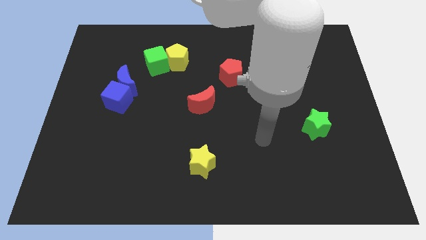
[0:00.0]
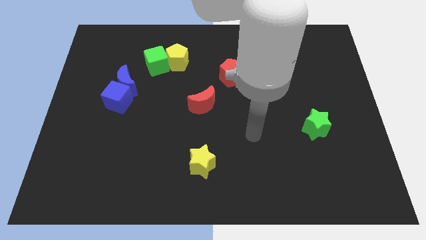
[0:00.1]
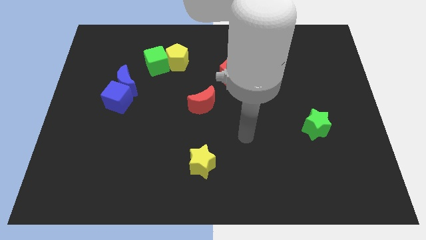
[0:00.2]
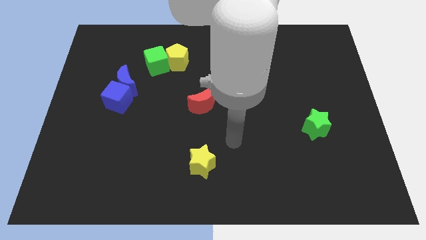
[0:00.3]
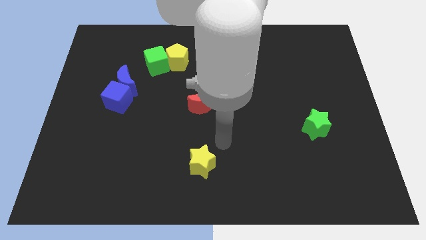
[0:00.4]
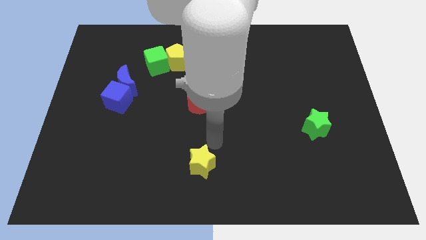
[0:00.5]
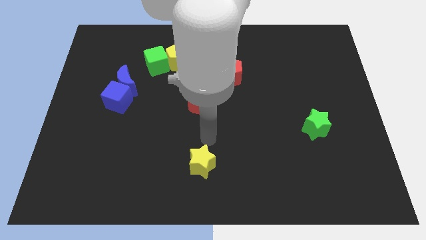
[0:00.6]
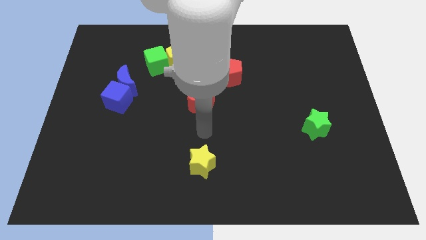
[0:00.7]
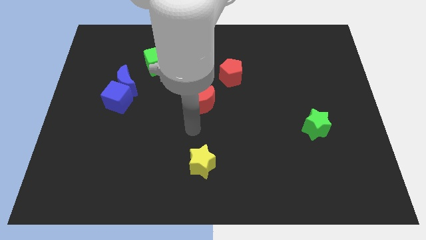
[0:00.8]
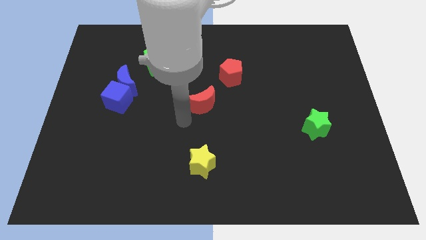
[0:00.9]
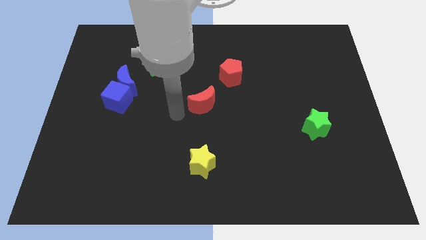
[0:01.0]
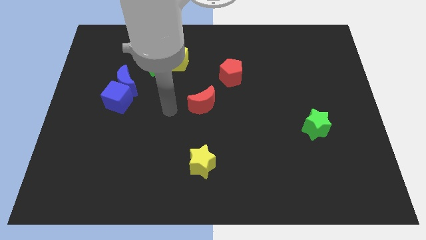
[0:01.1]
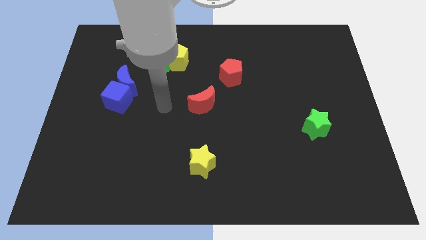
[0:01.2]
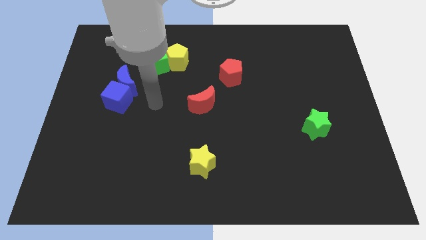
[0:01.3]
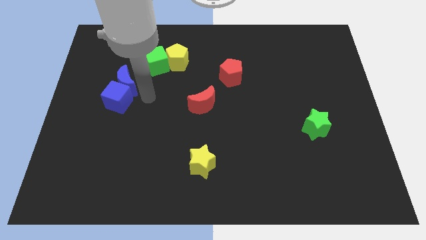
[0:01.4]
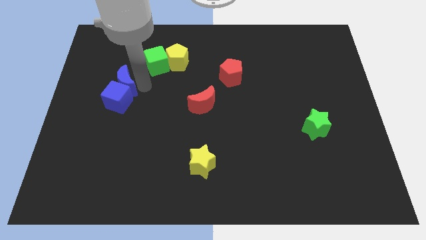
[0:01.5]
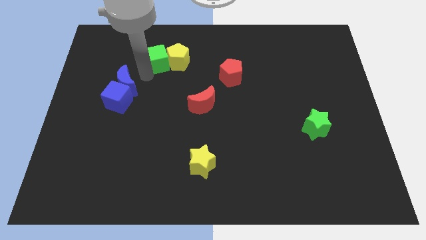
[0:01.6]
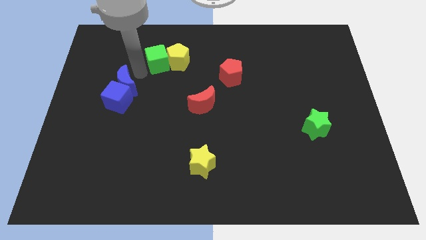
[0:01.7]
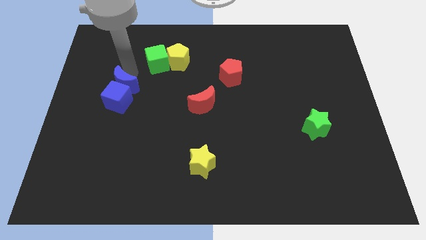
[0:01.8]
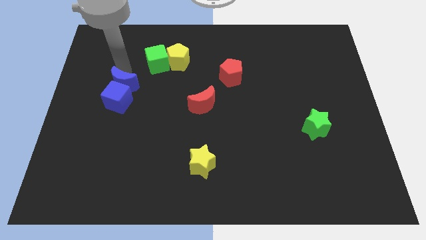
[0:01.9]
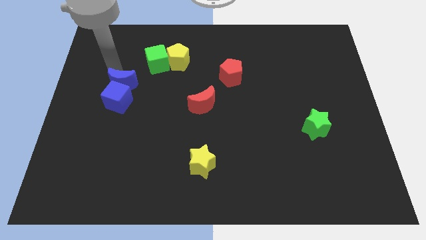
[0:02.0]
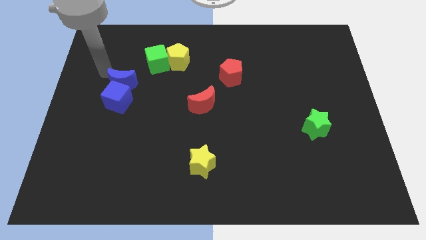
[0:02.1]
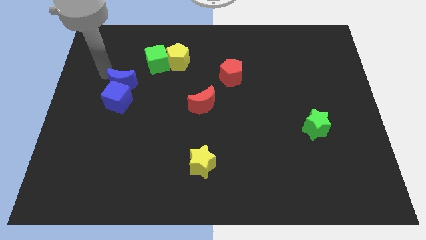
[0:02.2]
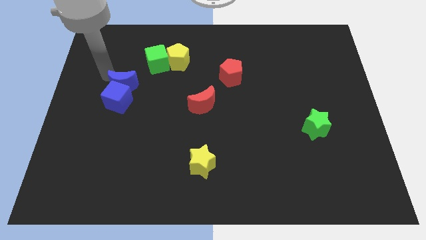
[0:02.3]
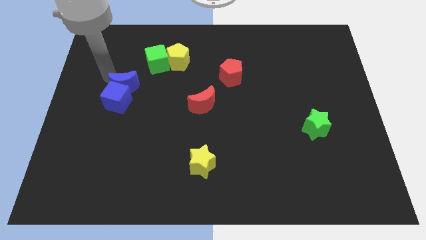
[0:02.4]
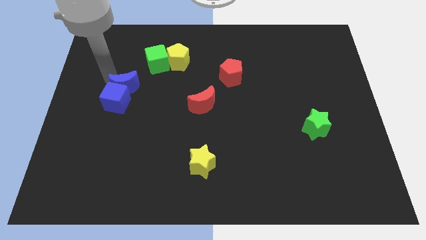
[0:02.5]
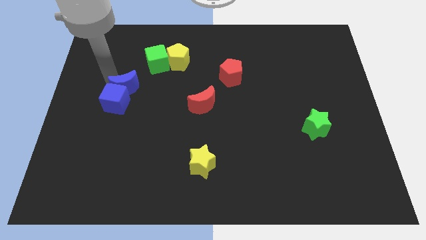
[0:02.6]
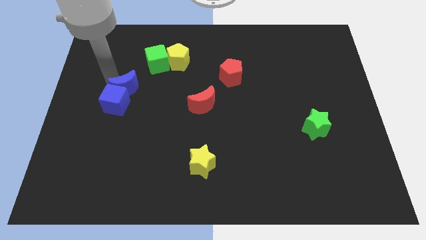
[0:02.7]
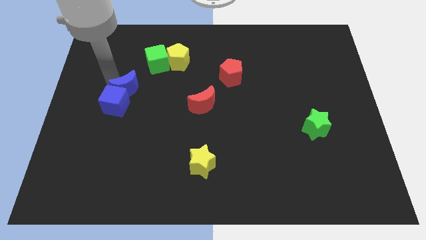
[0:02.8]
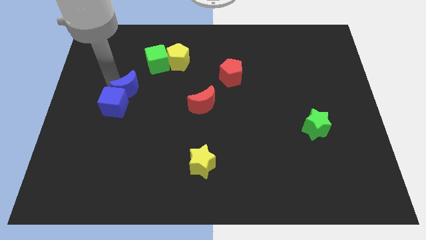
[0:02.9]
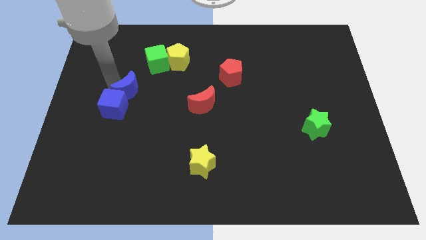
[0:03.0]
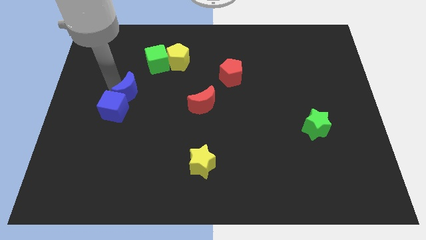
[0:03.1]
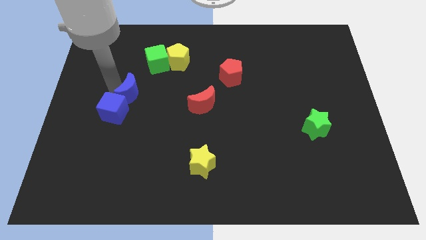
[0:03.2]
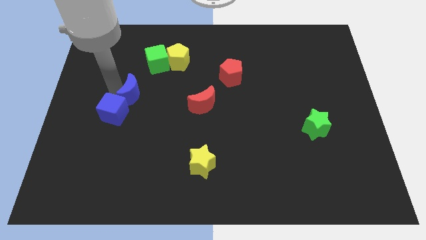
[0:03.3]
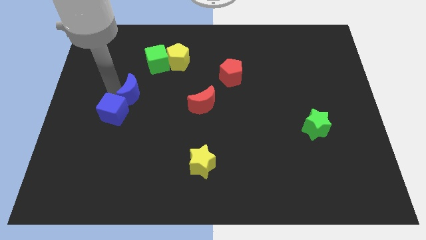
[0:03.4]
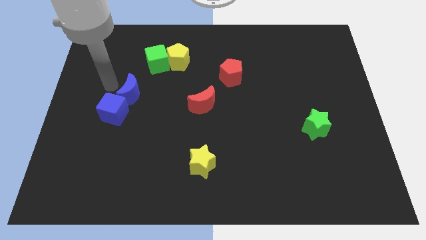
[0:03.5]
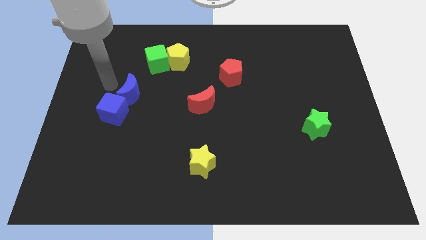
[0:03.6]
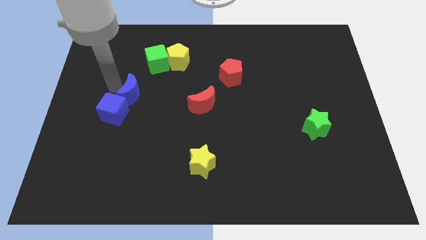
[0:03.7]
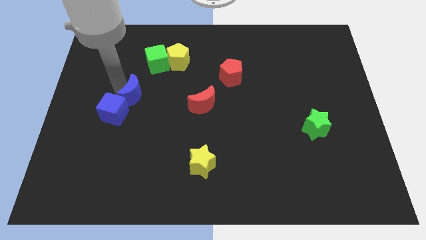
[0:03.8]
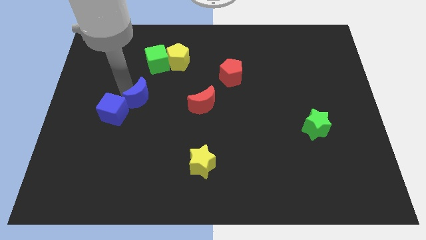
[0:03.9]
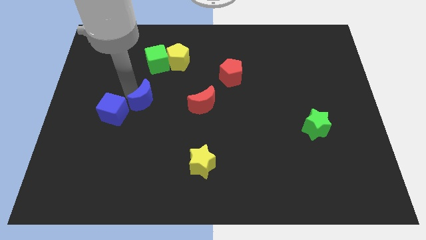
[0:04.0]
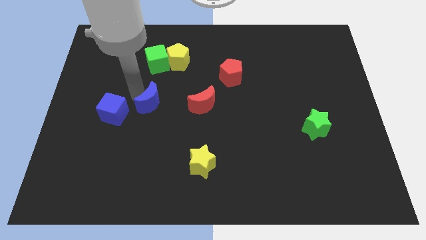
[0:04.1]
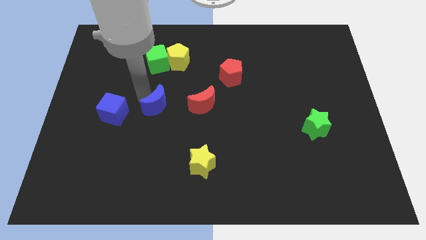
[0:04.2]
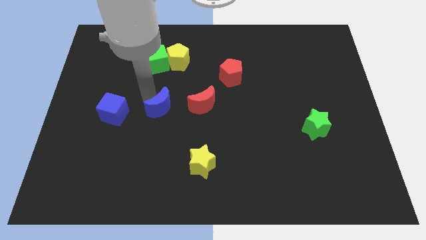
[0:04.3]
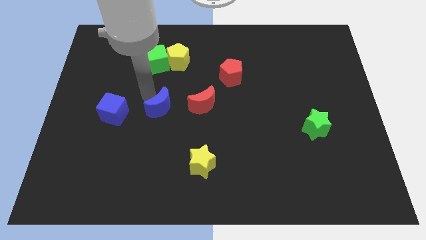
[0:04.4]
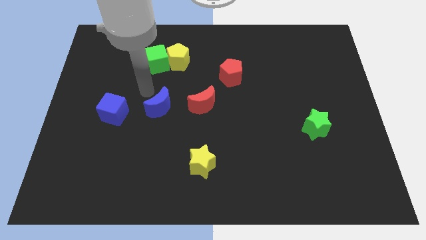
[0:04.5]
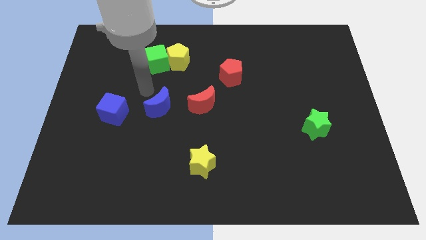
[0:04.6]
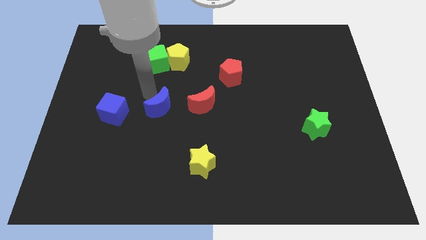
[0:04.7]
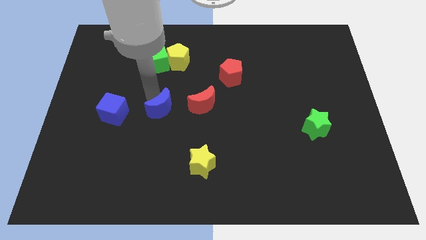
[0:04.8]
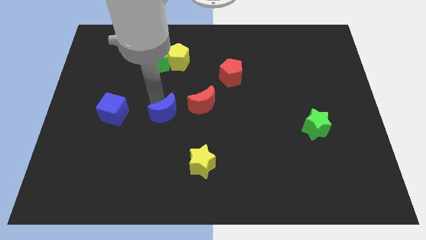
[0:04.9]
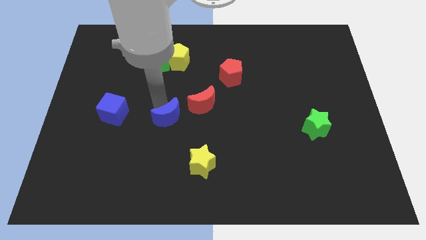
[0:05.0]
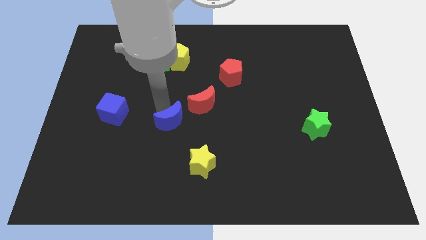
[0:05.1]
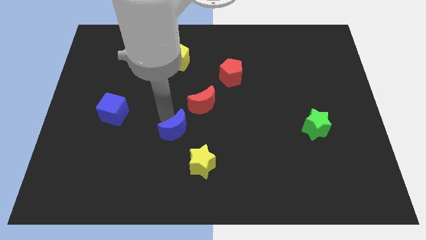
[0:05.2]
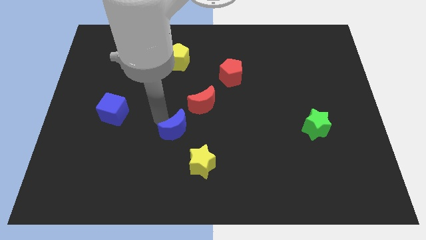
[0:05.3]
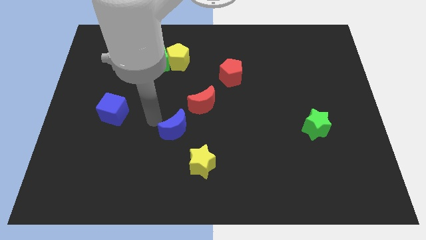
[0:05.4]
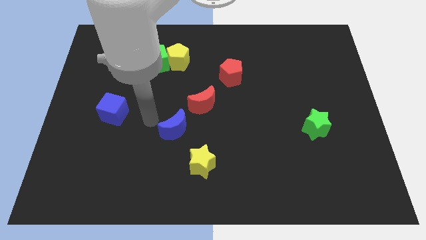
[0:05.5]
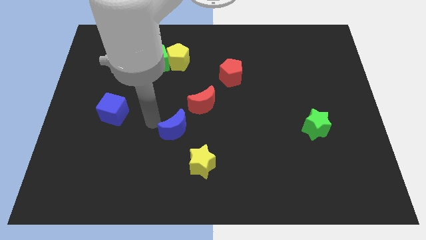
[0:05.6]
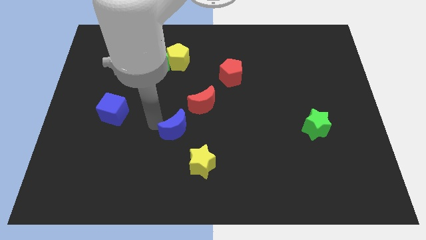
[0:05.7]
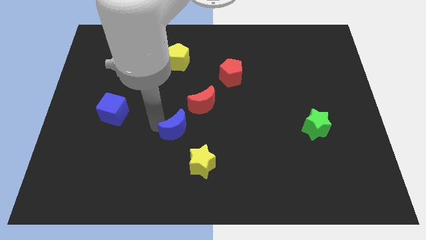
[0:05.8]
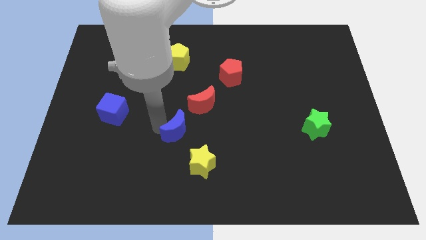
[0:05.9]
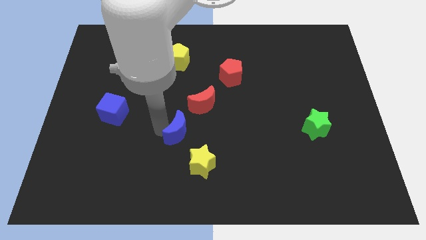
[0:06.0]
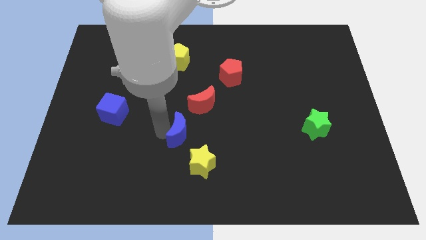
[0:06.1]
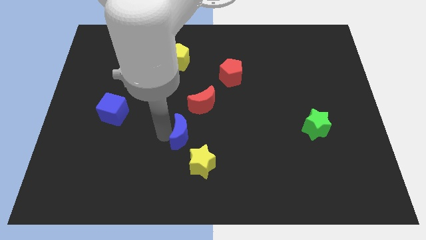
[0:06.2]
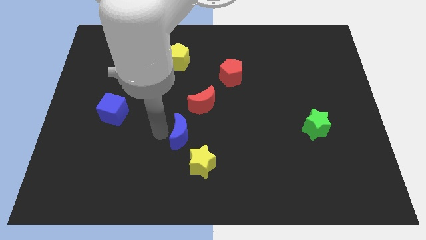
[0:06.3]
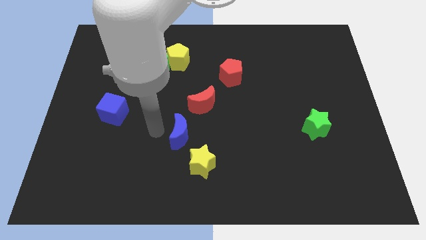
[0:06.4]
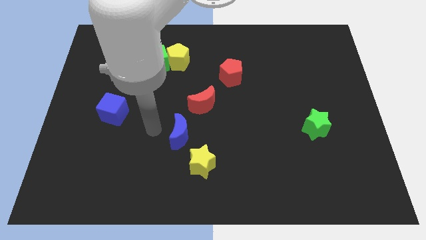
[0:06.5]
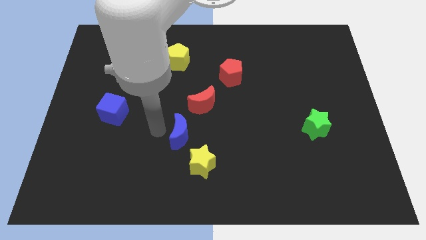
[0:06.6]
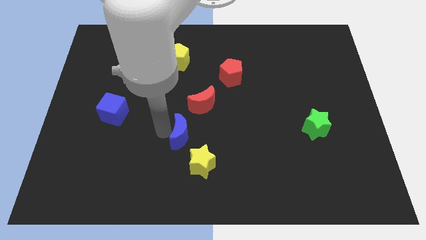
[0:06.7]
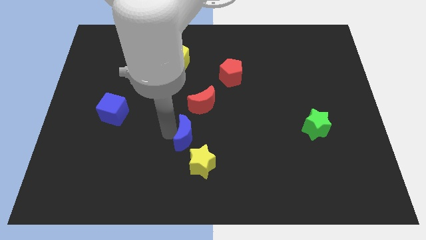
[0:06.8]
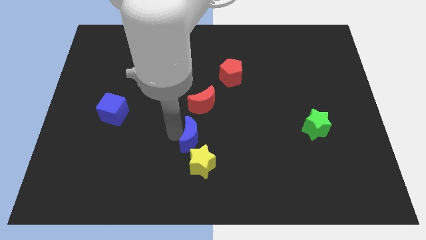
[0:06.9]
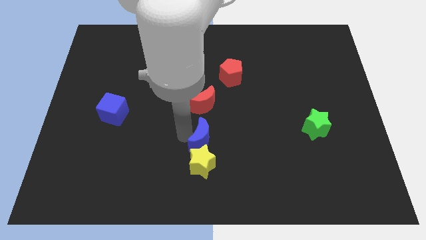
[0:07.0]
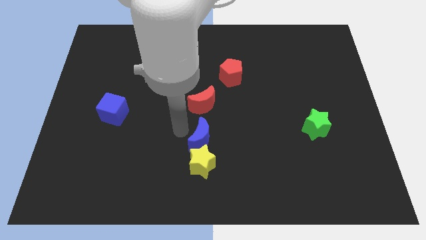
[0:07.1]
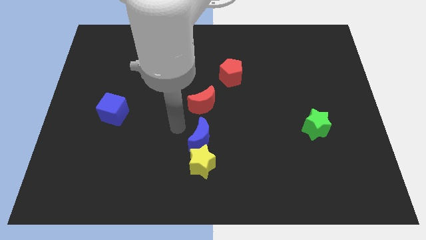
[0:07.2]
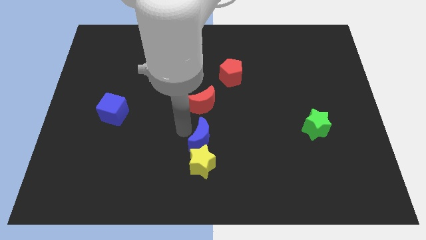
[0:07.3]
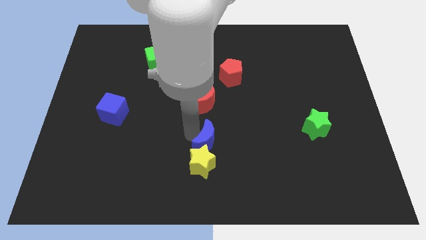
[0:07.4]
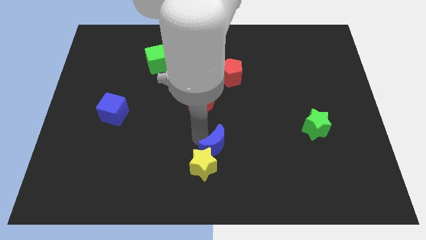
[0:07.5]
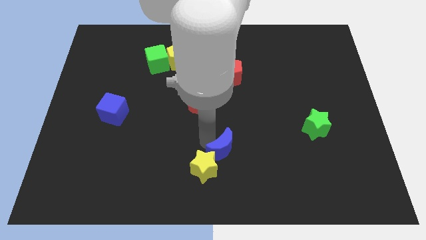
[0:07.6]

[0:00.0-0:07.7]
push the blue moon just right of the yellow star
